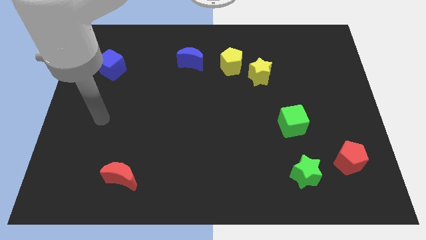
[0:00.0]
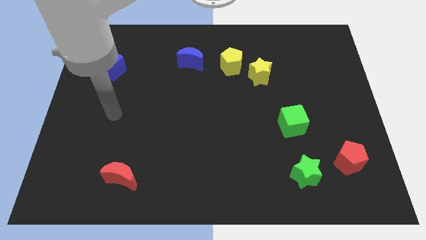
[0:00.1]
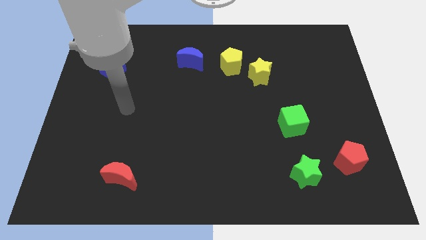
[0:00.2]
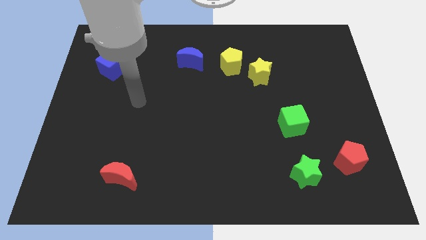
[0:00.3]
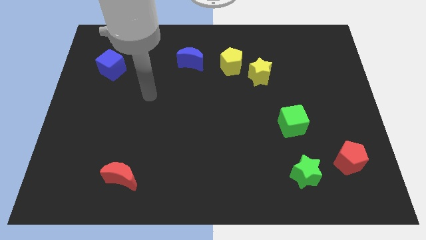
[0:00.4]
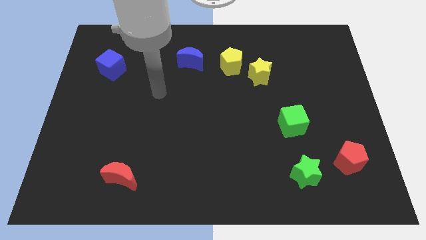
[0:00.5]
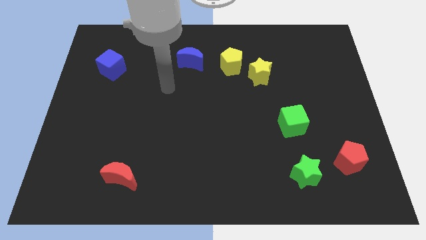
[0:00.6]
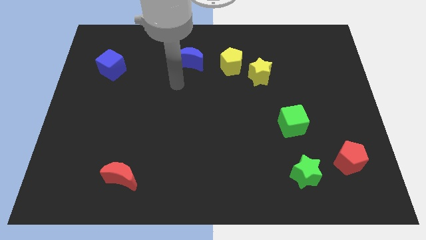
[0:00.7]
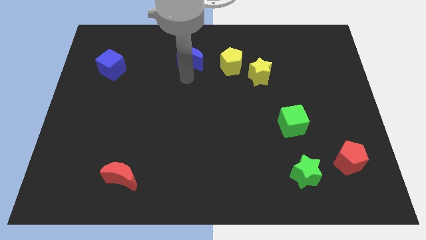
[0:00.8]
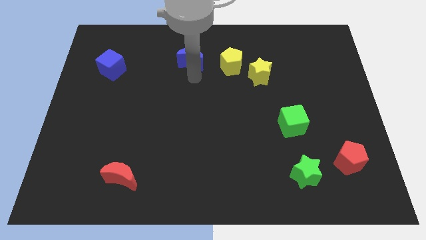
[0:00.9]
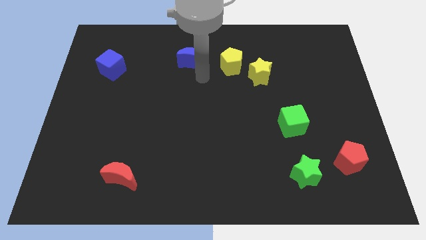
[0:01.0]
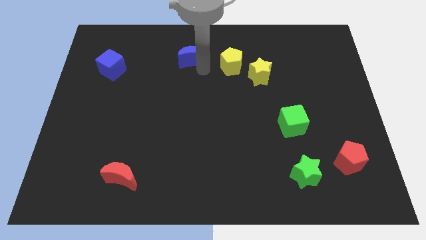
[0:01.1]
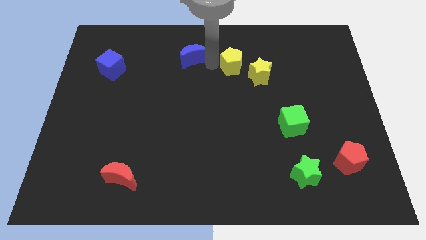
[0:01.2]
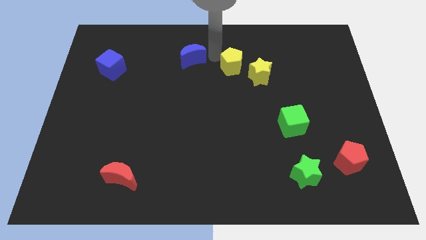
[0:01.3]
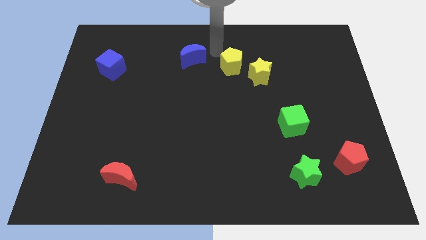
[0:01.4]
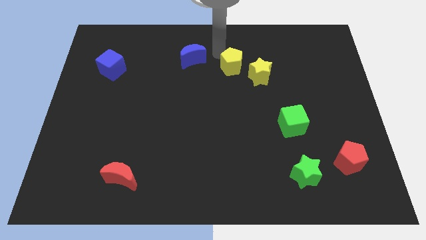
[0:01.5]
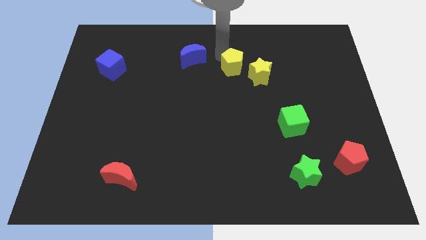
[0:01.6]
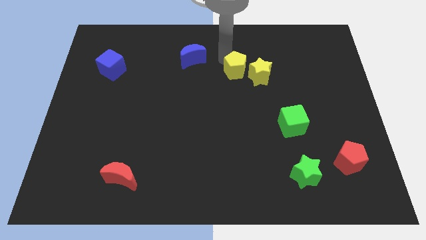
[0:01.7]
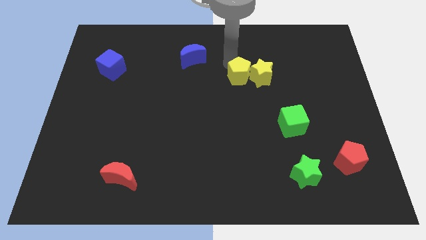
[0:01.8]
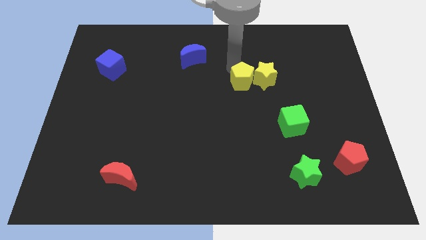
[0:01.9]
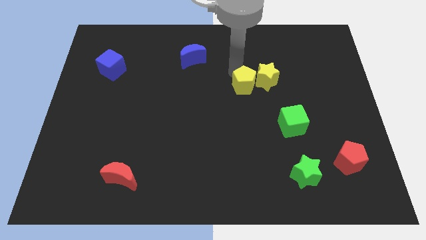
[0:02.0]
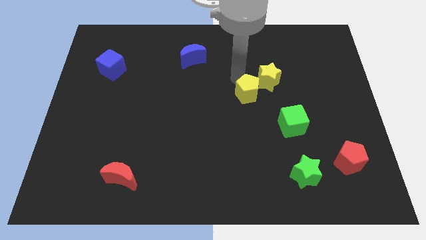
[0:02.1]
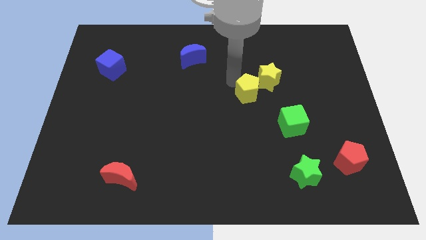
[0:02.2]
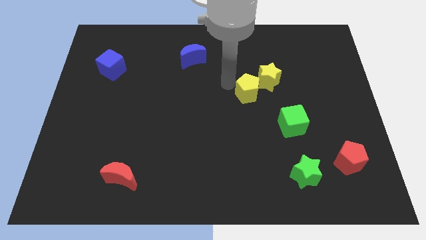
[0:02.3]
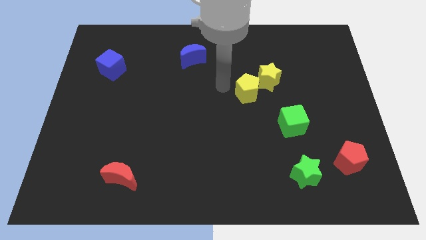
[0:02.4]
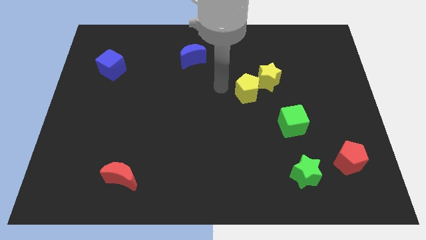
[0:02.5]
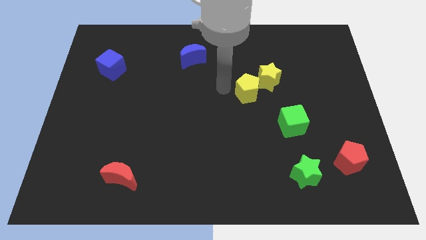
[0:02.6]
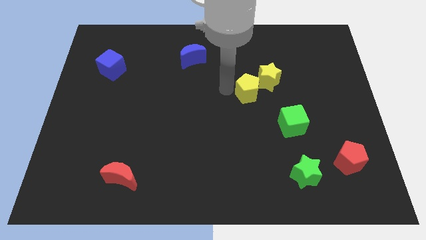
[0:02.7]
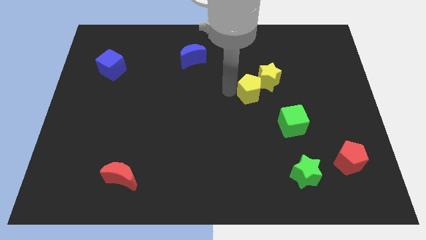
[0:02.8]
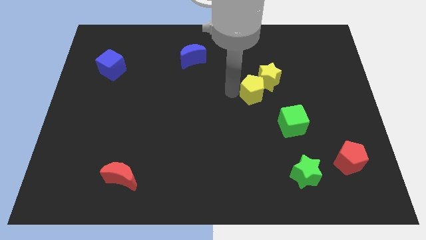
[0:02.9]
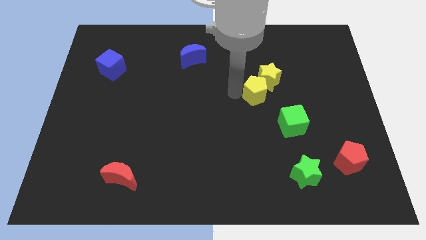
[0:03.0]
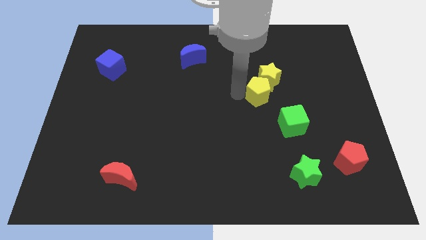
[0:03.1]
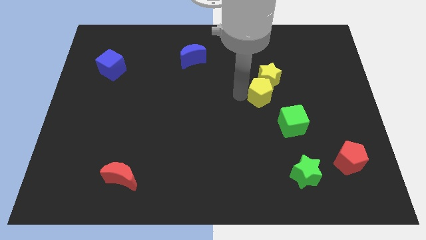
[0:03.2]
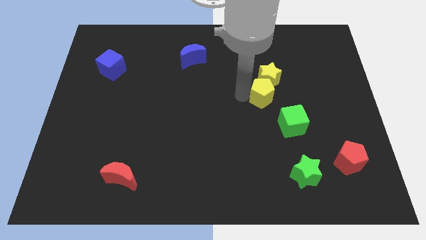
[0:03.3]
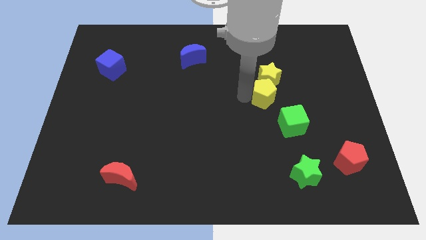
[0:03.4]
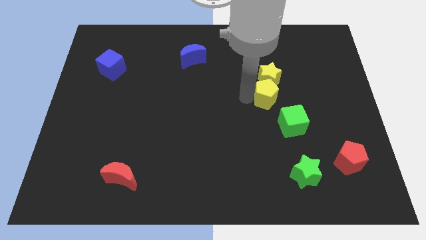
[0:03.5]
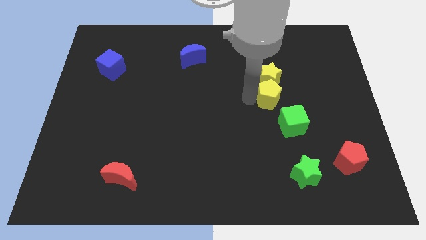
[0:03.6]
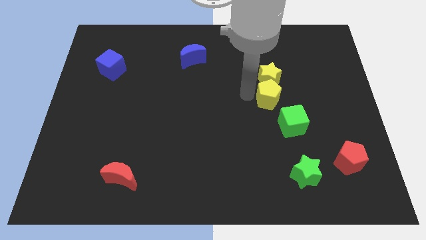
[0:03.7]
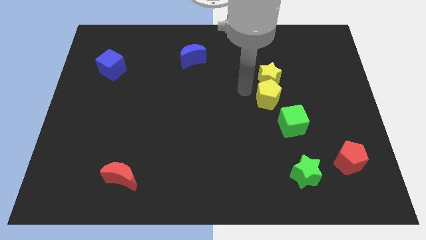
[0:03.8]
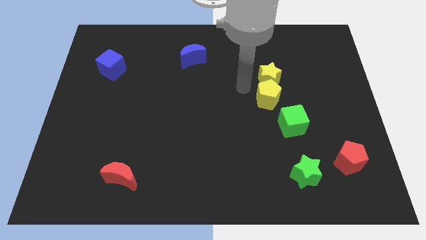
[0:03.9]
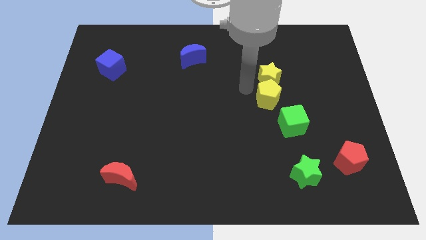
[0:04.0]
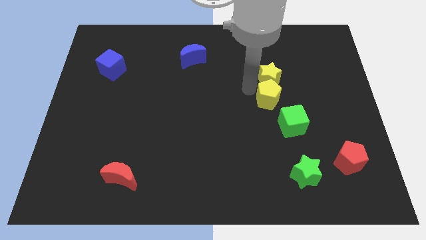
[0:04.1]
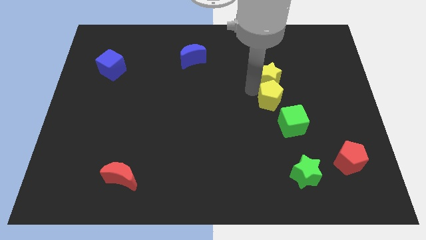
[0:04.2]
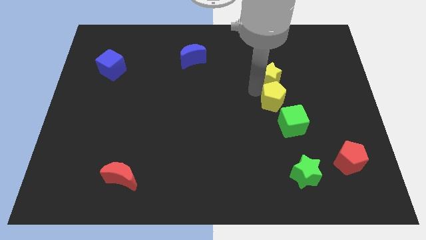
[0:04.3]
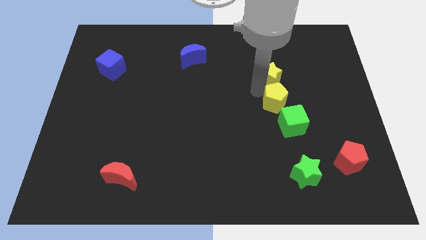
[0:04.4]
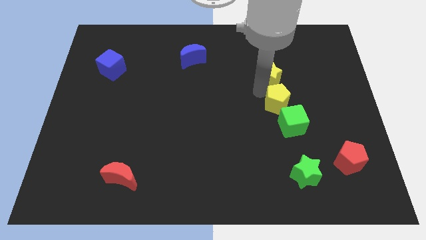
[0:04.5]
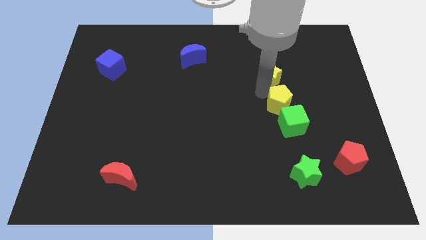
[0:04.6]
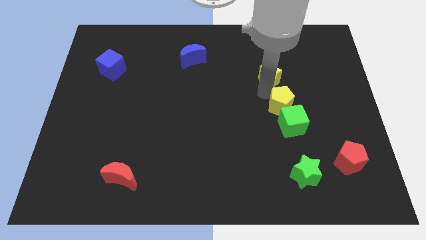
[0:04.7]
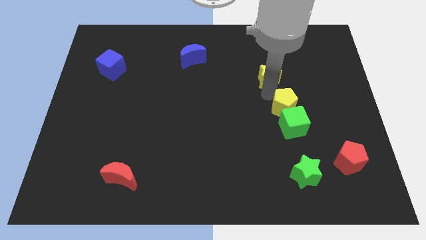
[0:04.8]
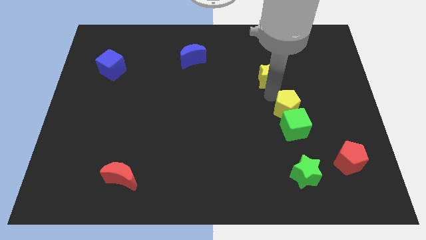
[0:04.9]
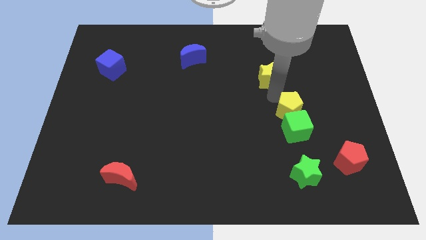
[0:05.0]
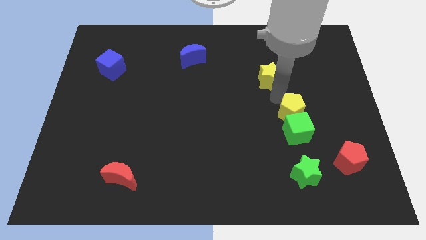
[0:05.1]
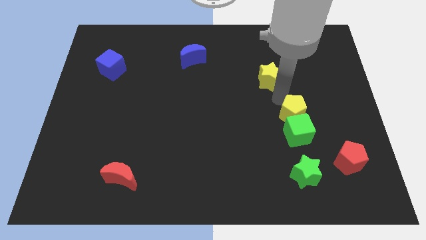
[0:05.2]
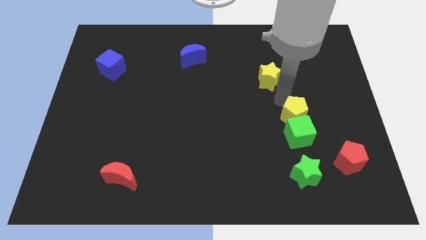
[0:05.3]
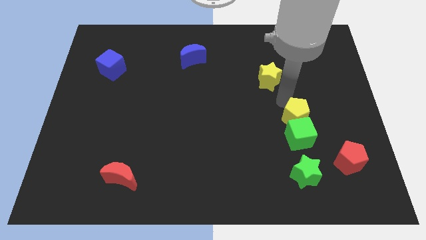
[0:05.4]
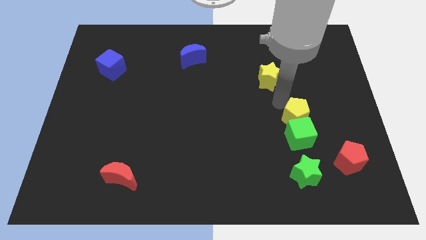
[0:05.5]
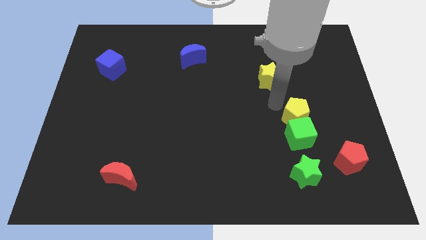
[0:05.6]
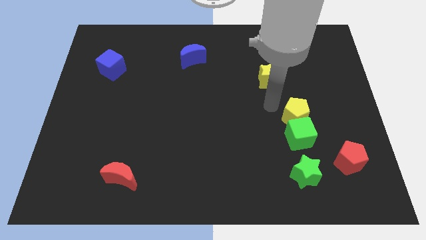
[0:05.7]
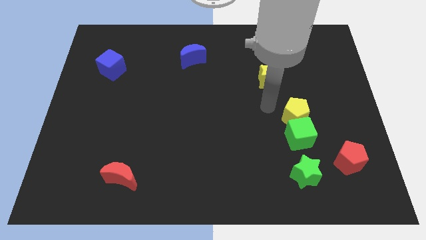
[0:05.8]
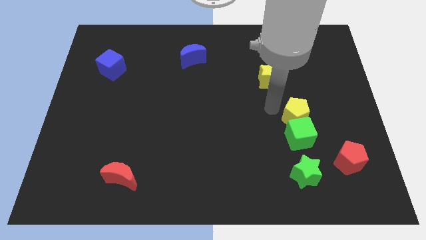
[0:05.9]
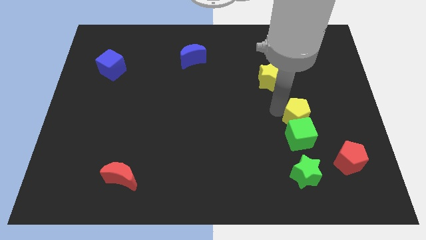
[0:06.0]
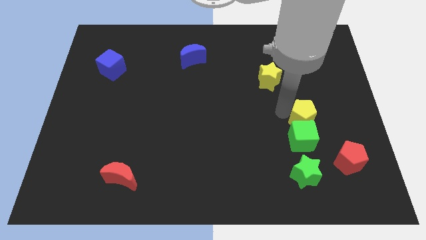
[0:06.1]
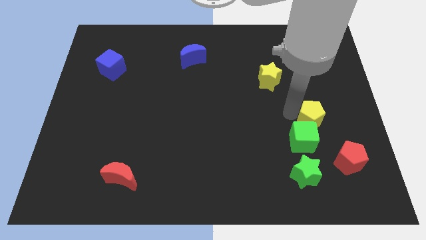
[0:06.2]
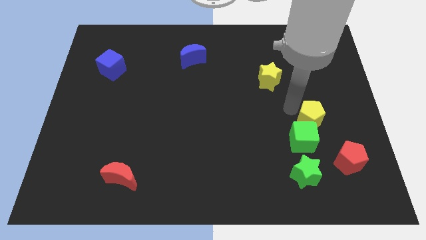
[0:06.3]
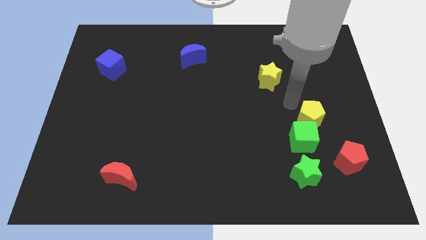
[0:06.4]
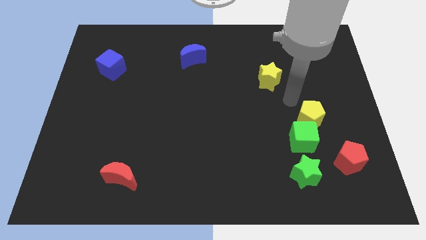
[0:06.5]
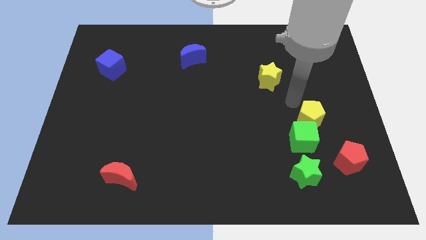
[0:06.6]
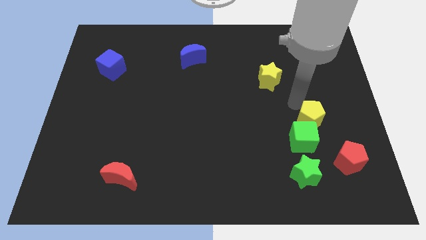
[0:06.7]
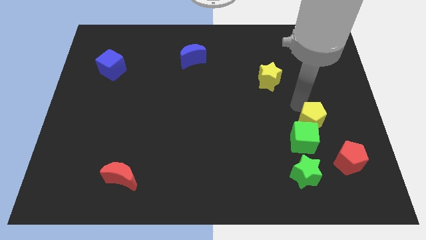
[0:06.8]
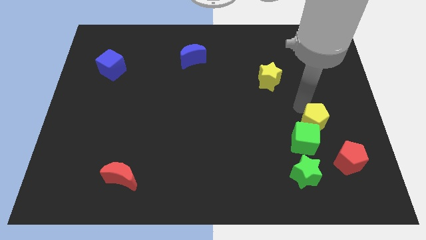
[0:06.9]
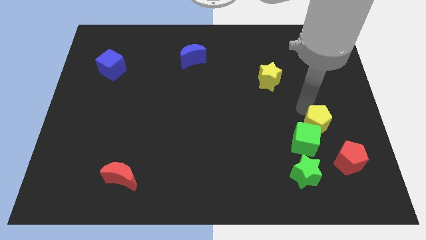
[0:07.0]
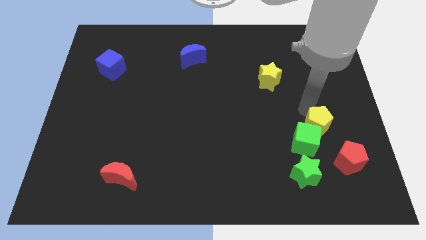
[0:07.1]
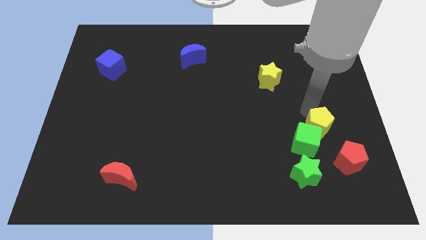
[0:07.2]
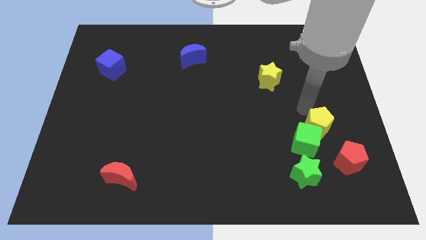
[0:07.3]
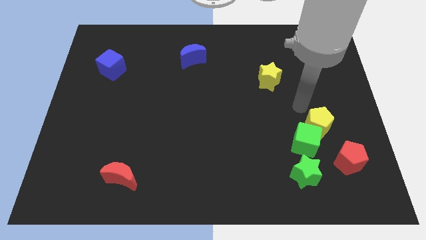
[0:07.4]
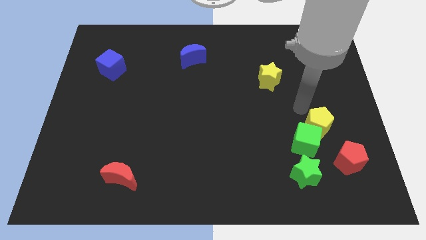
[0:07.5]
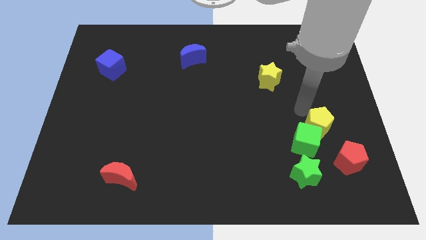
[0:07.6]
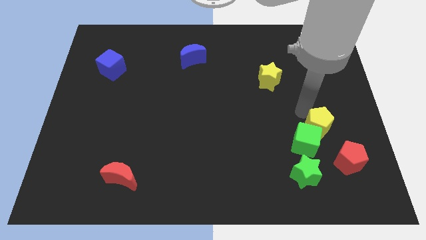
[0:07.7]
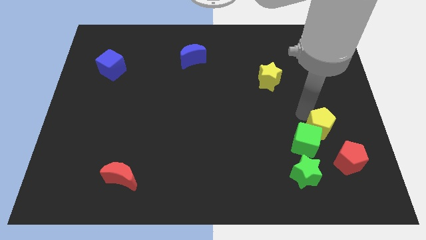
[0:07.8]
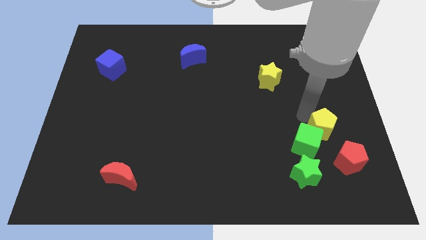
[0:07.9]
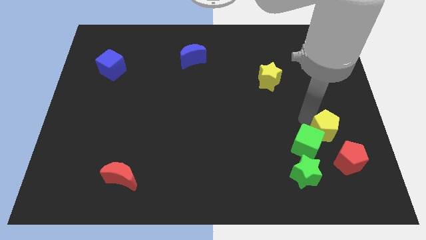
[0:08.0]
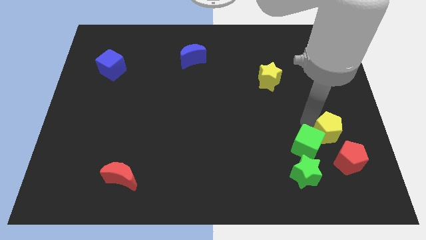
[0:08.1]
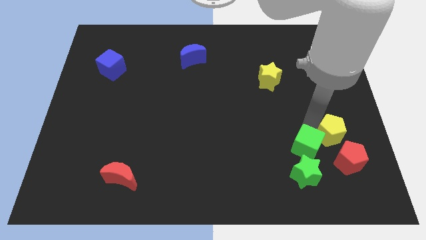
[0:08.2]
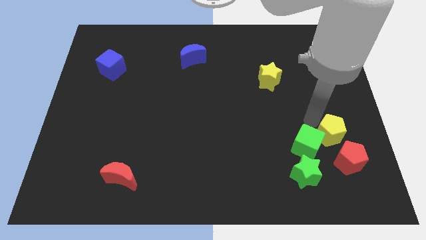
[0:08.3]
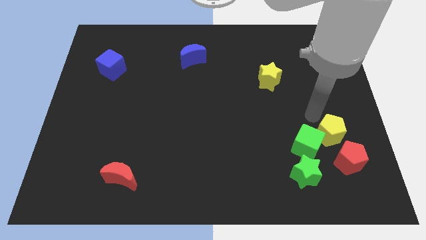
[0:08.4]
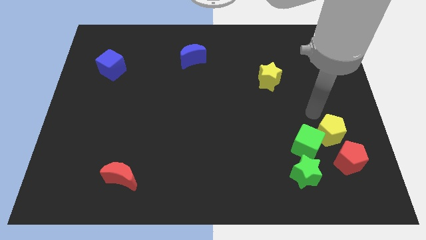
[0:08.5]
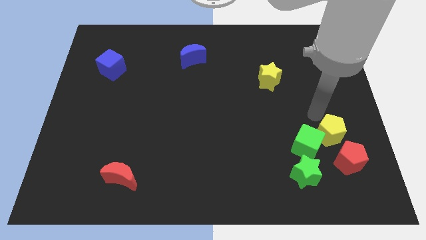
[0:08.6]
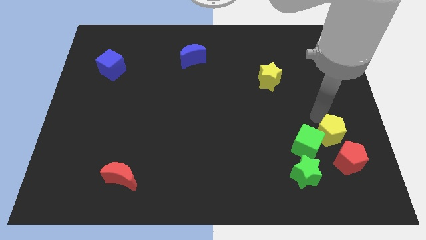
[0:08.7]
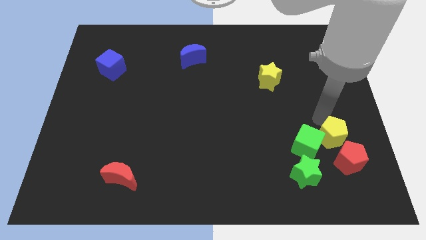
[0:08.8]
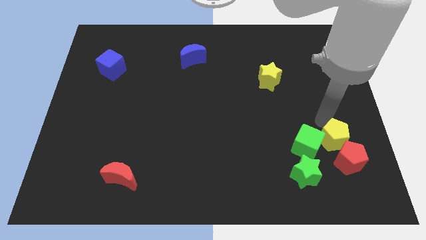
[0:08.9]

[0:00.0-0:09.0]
slide the yellow pentagon next to the red pentagon
